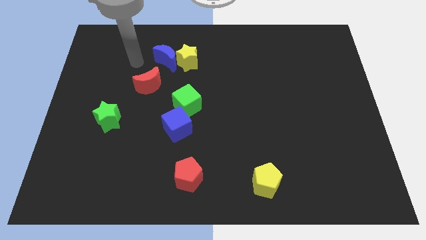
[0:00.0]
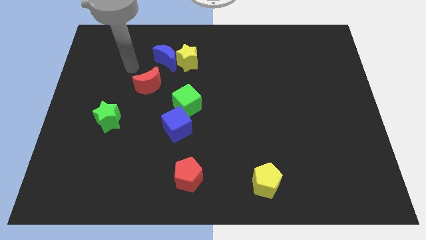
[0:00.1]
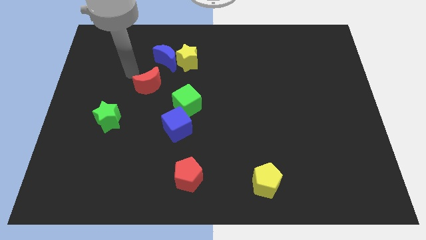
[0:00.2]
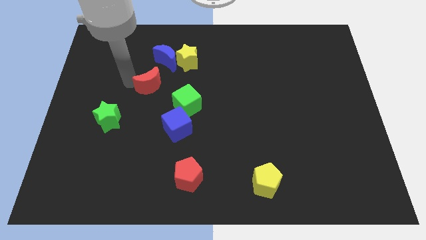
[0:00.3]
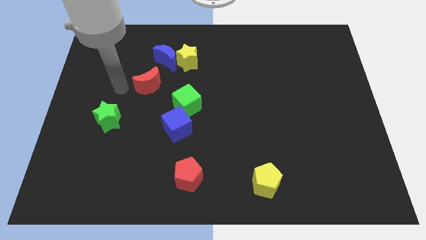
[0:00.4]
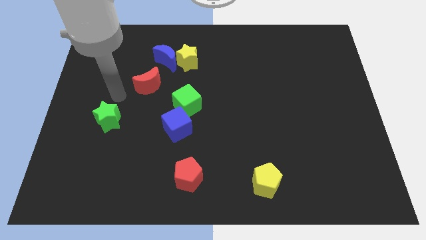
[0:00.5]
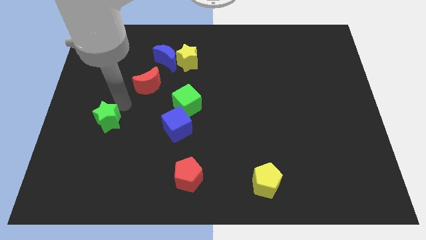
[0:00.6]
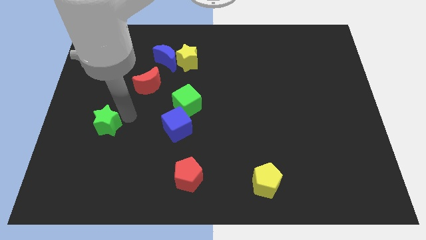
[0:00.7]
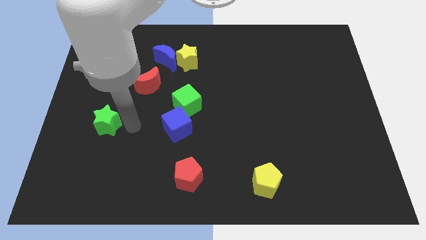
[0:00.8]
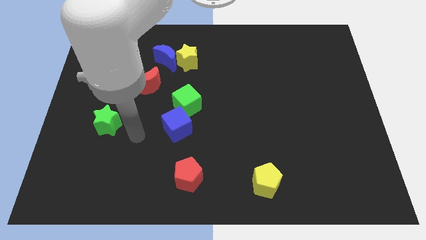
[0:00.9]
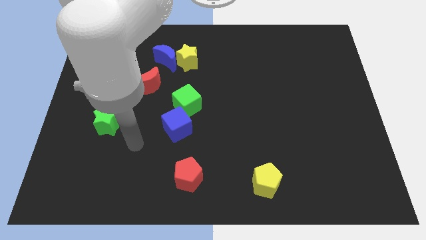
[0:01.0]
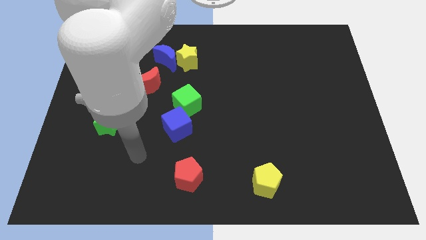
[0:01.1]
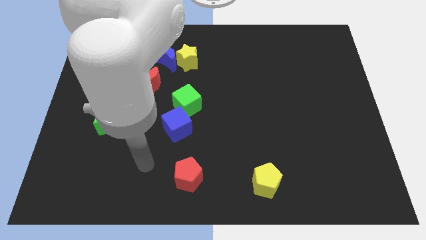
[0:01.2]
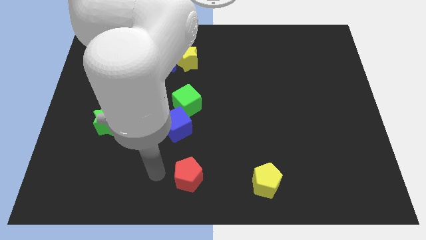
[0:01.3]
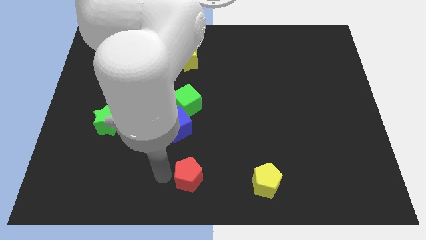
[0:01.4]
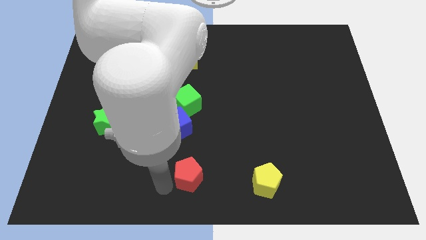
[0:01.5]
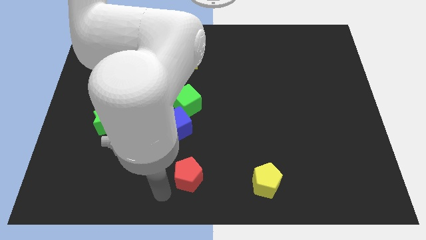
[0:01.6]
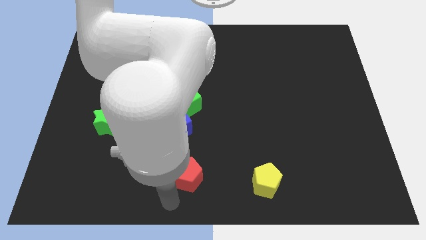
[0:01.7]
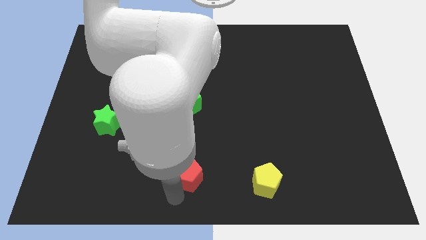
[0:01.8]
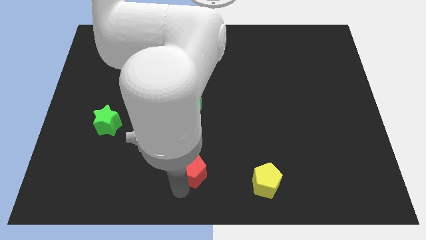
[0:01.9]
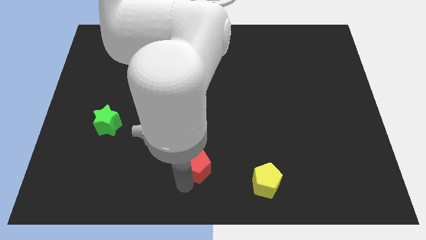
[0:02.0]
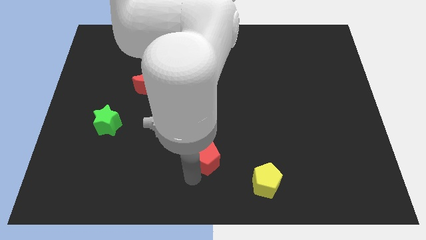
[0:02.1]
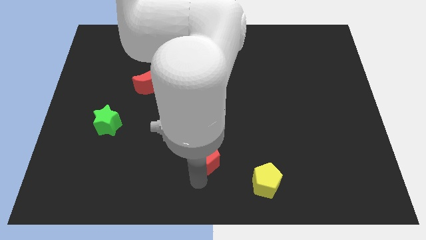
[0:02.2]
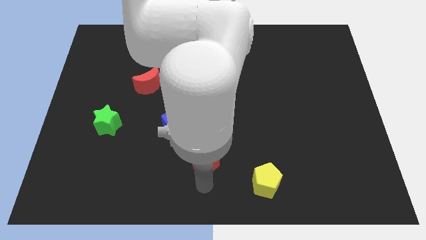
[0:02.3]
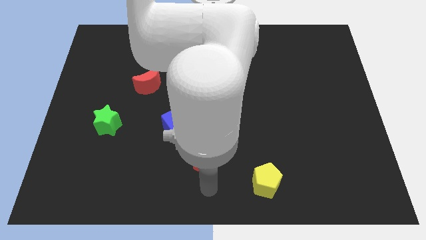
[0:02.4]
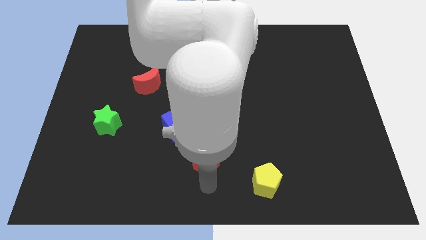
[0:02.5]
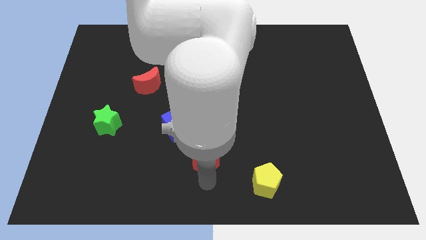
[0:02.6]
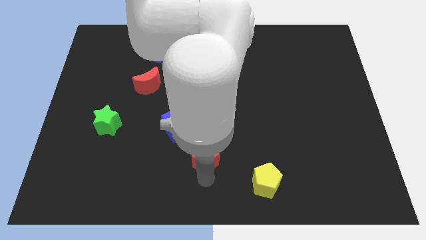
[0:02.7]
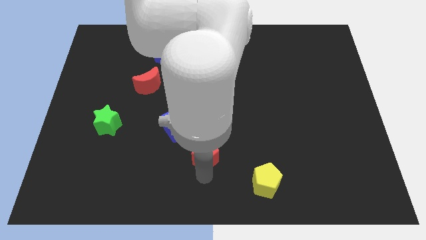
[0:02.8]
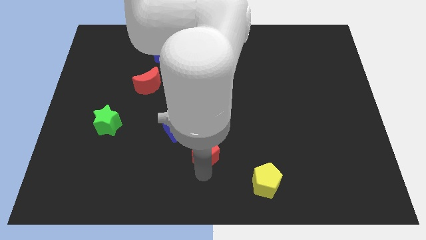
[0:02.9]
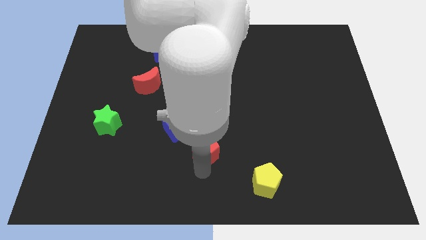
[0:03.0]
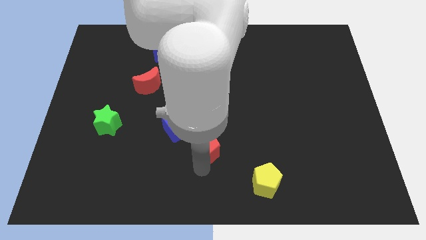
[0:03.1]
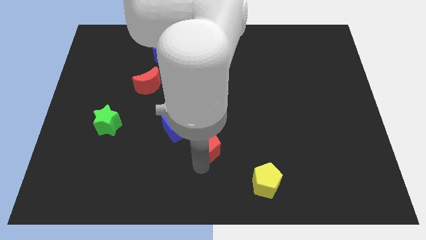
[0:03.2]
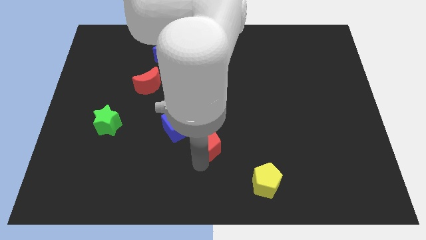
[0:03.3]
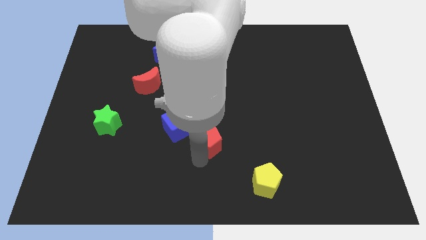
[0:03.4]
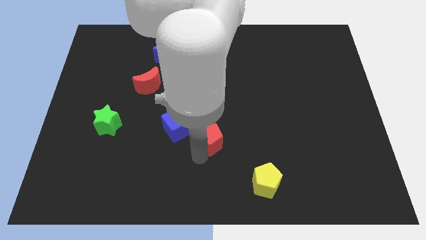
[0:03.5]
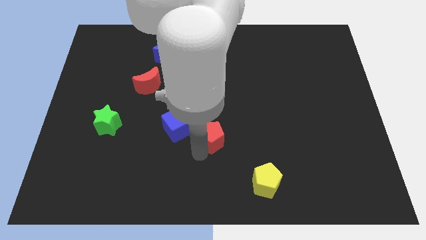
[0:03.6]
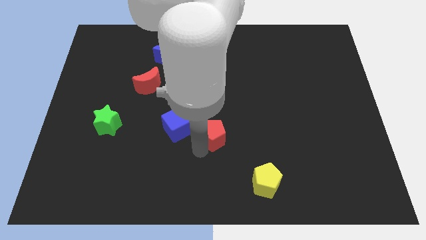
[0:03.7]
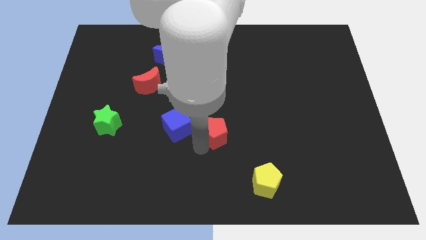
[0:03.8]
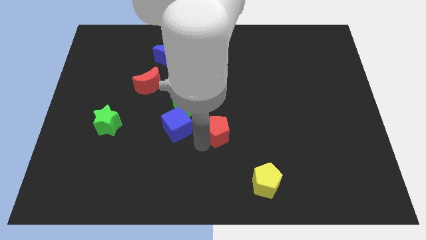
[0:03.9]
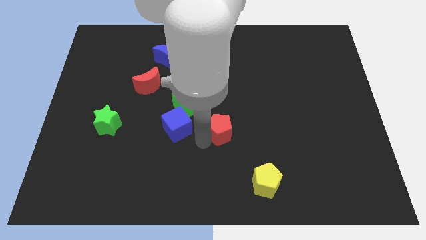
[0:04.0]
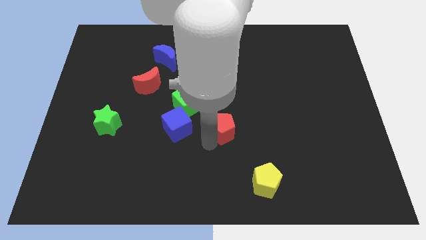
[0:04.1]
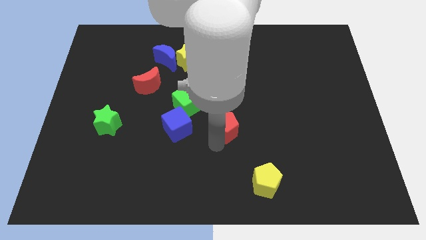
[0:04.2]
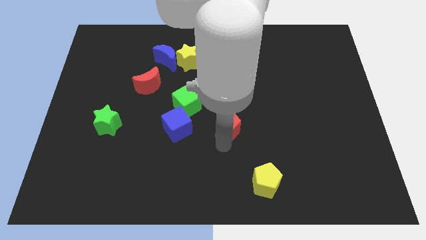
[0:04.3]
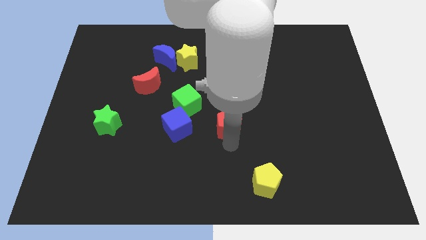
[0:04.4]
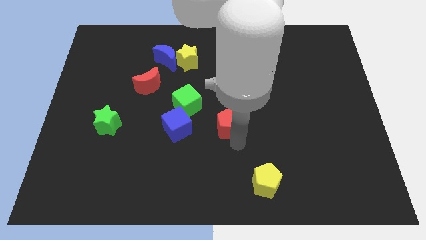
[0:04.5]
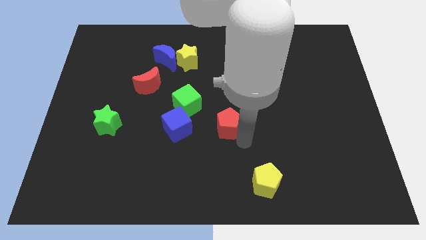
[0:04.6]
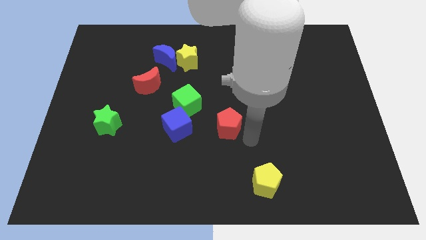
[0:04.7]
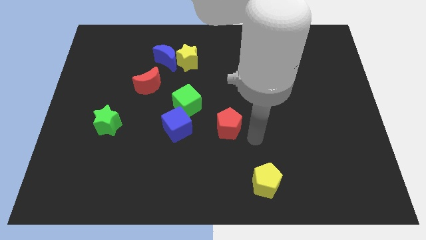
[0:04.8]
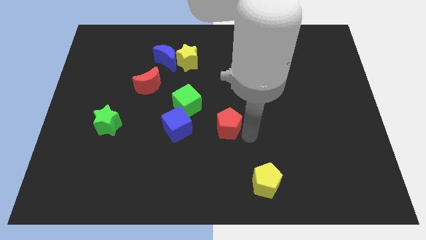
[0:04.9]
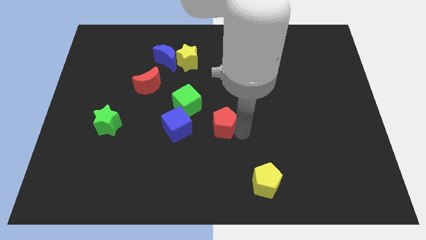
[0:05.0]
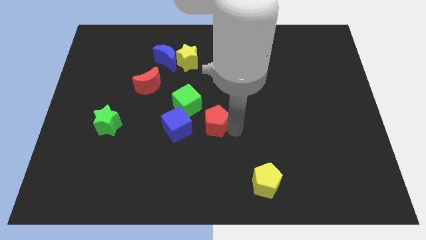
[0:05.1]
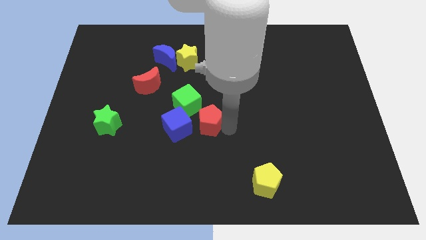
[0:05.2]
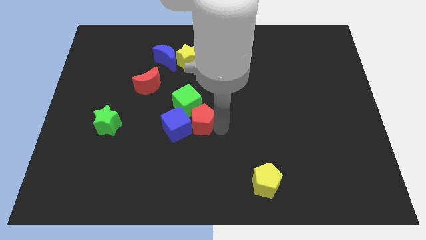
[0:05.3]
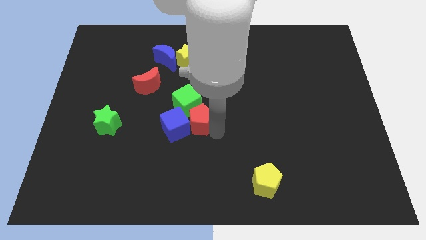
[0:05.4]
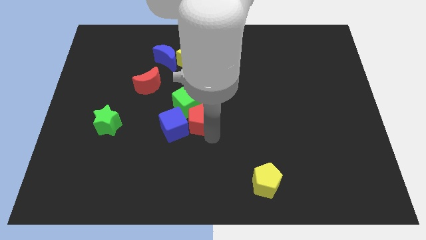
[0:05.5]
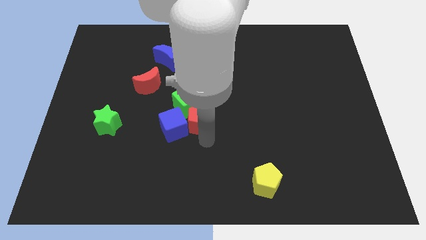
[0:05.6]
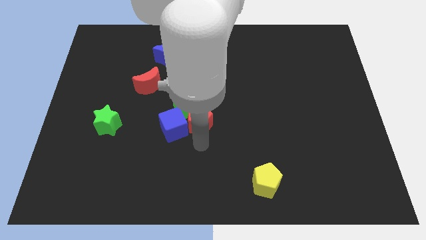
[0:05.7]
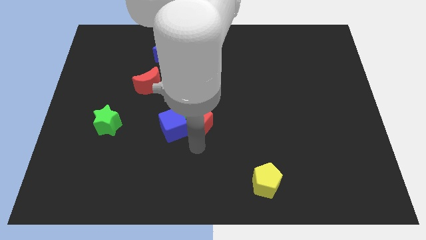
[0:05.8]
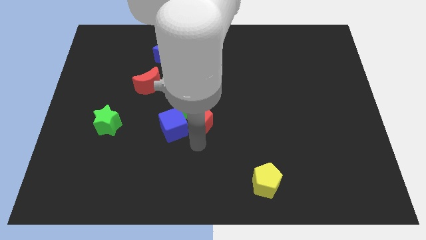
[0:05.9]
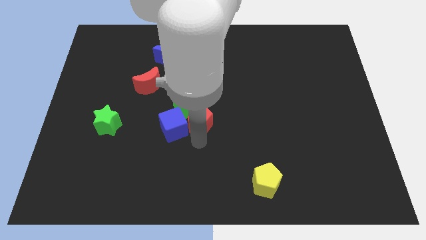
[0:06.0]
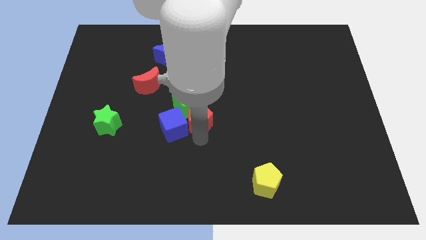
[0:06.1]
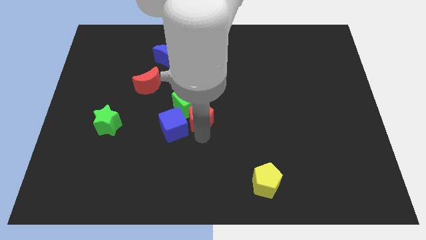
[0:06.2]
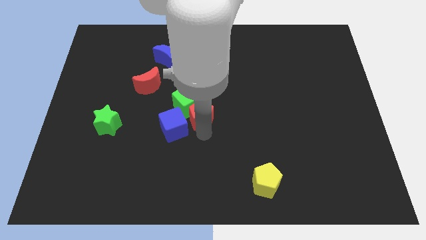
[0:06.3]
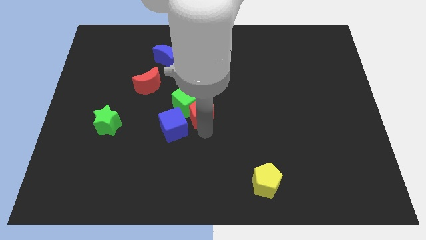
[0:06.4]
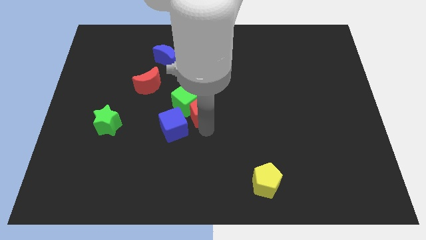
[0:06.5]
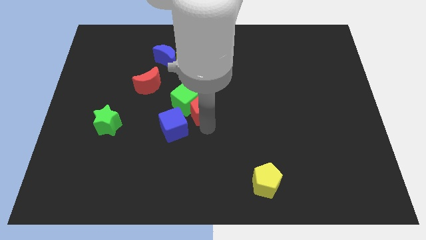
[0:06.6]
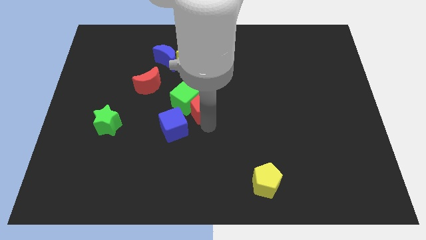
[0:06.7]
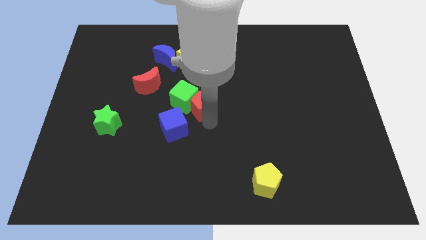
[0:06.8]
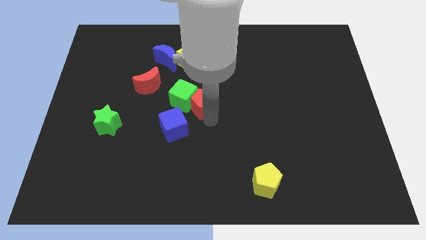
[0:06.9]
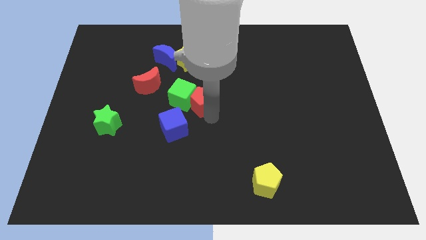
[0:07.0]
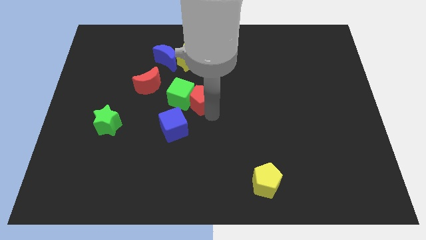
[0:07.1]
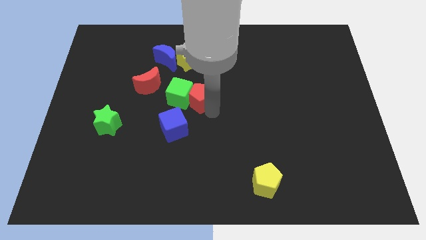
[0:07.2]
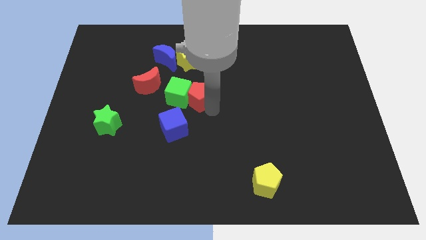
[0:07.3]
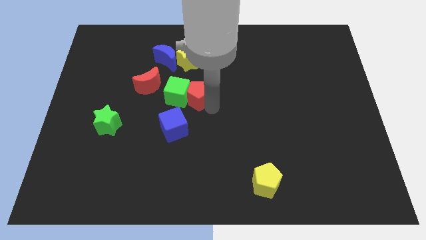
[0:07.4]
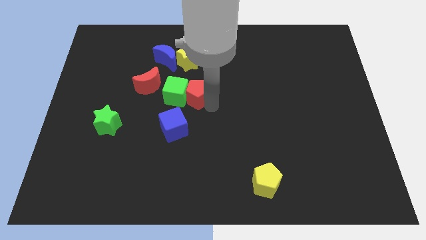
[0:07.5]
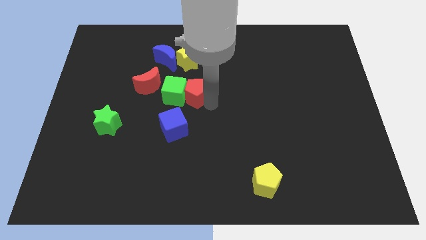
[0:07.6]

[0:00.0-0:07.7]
push the red pentagon above the blue cube
